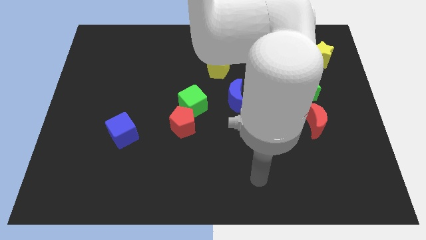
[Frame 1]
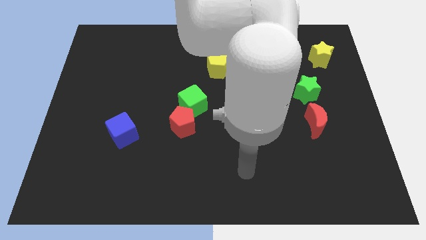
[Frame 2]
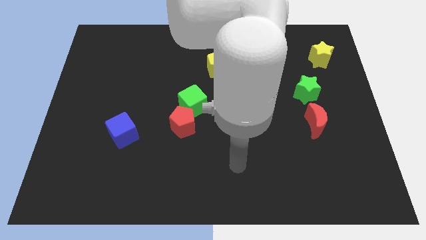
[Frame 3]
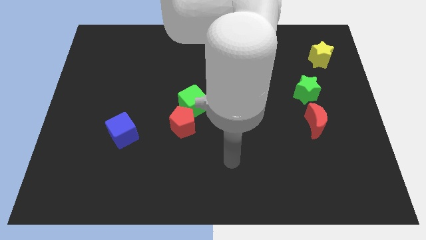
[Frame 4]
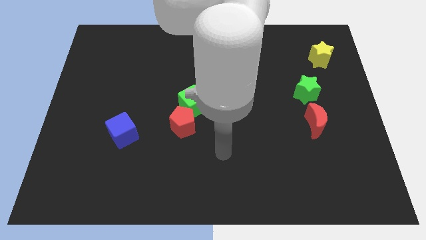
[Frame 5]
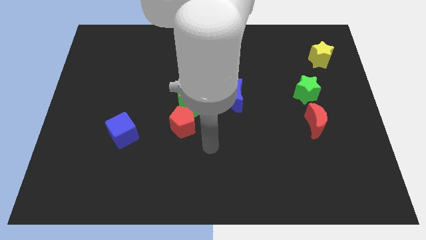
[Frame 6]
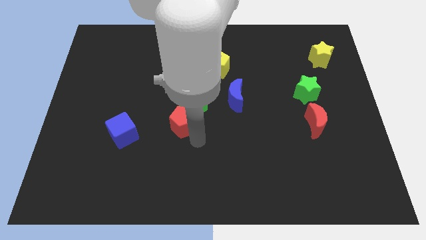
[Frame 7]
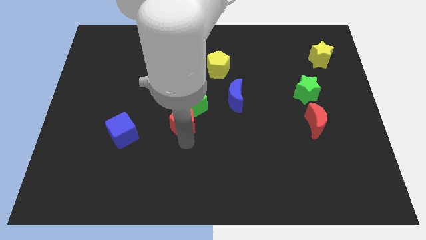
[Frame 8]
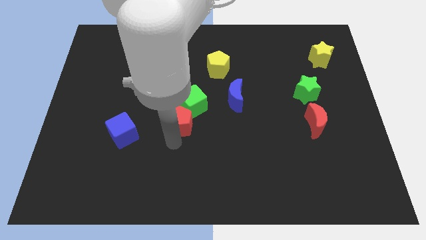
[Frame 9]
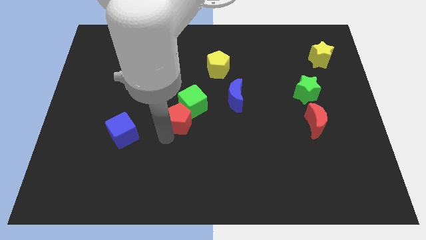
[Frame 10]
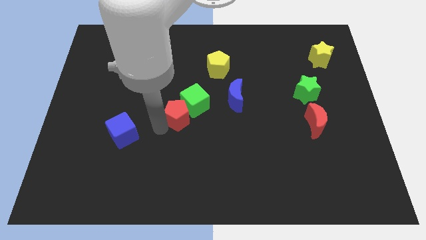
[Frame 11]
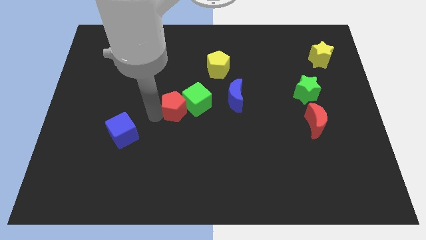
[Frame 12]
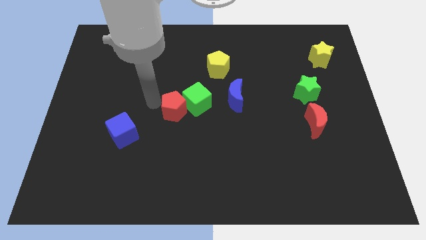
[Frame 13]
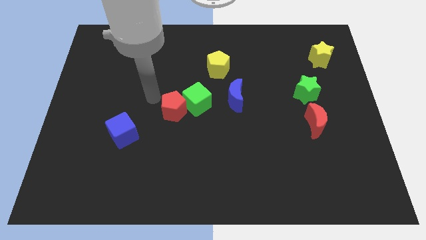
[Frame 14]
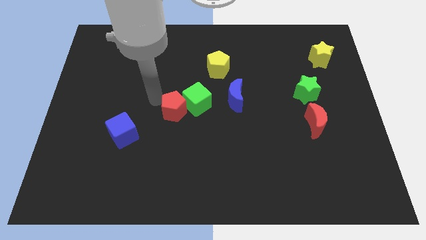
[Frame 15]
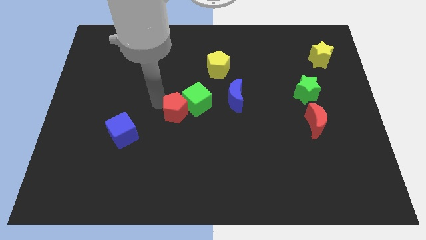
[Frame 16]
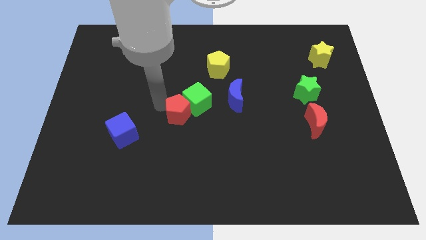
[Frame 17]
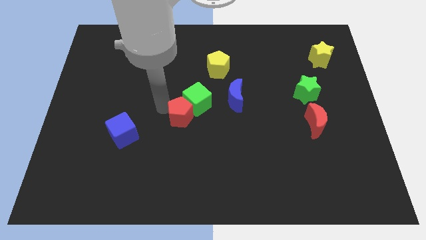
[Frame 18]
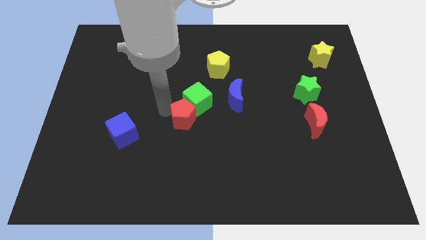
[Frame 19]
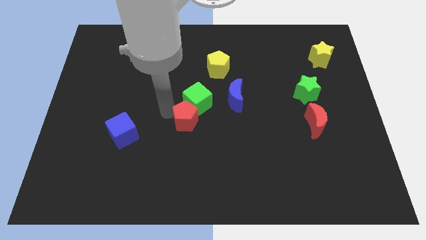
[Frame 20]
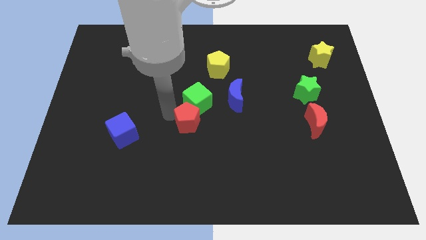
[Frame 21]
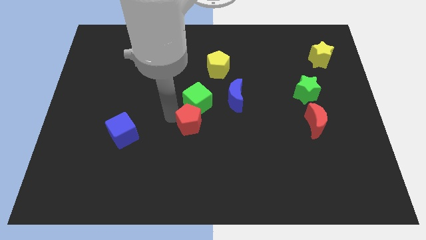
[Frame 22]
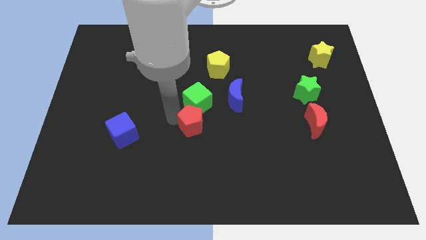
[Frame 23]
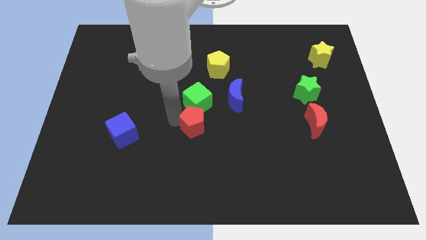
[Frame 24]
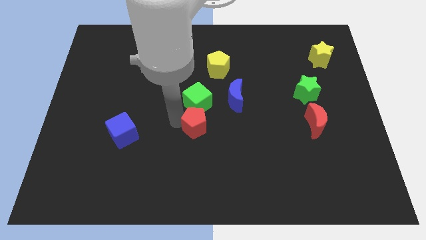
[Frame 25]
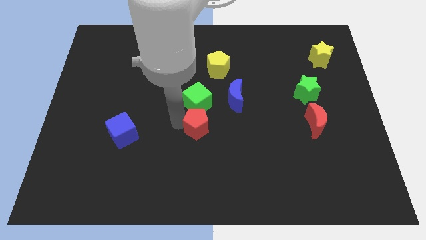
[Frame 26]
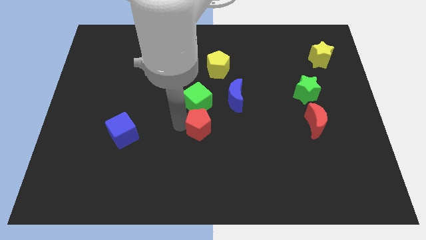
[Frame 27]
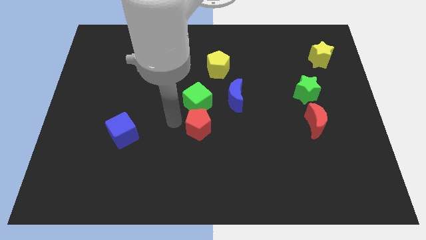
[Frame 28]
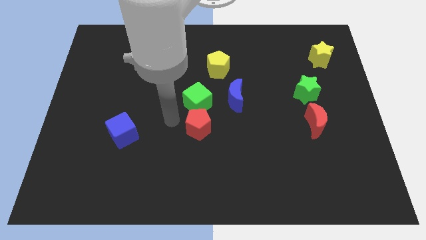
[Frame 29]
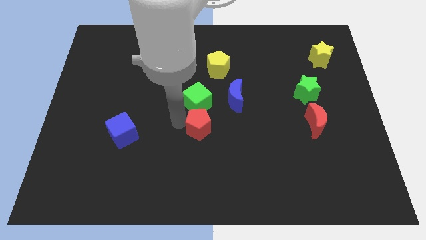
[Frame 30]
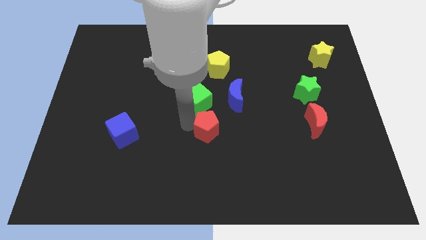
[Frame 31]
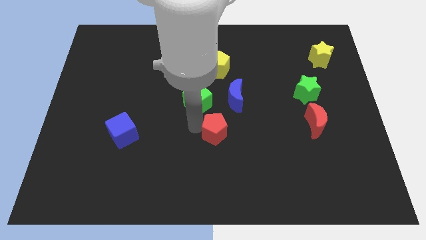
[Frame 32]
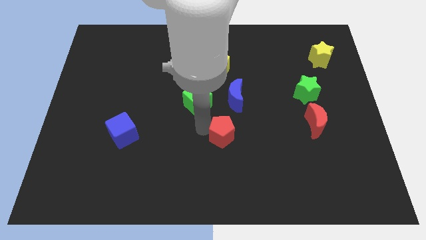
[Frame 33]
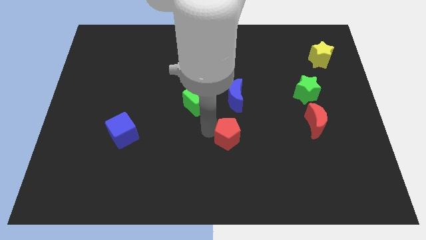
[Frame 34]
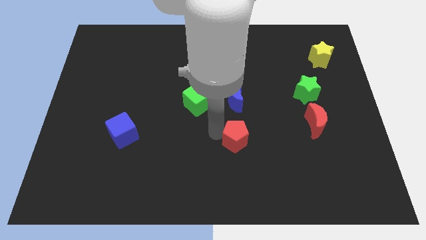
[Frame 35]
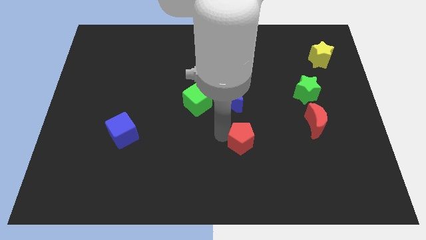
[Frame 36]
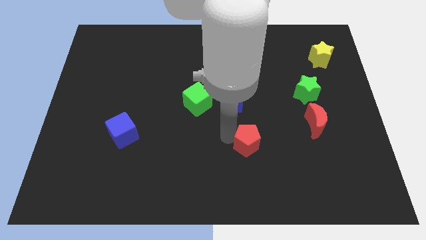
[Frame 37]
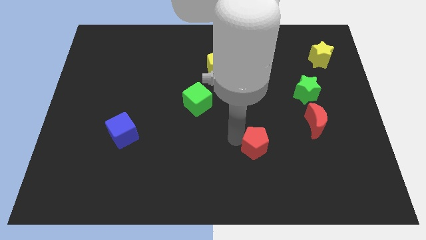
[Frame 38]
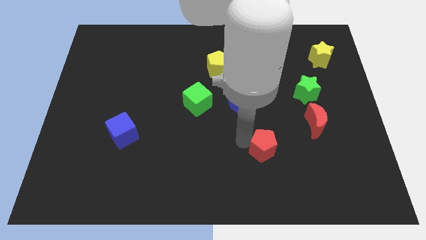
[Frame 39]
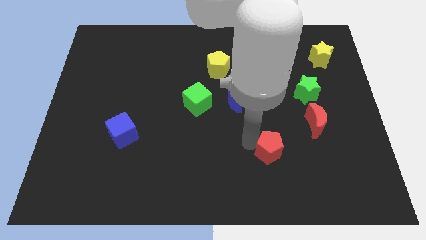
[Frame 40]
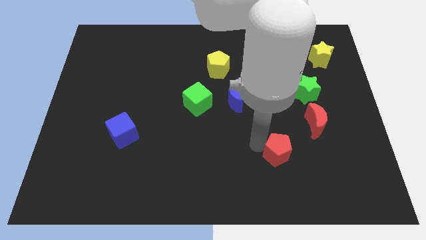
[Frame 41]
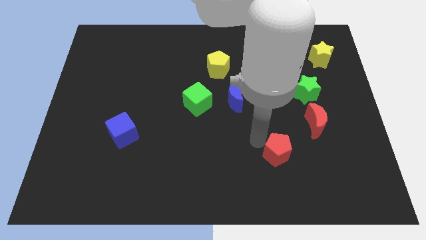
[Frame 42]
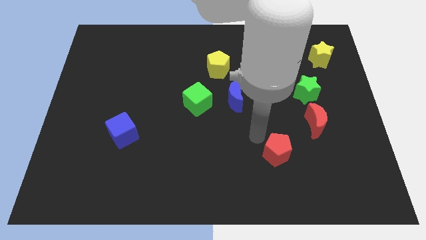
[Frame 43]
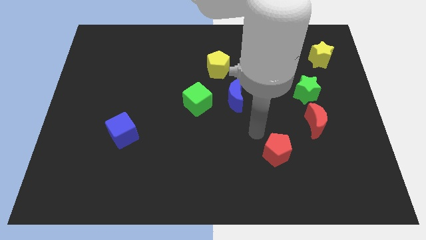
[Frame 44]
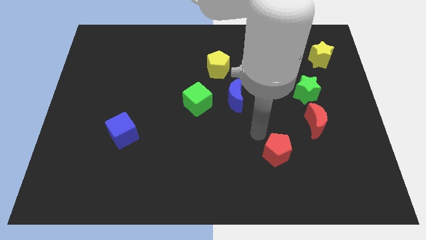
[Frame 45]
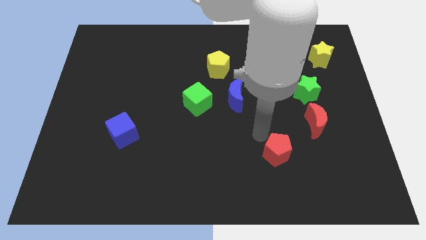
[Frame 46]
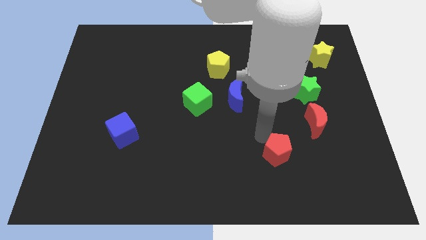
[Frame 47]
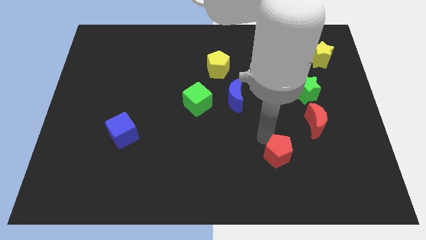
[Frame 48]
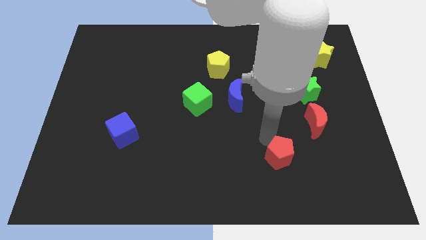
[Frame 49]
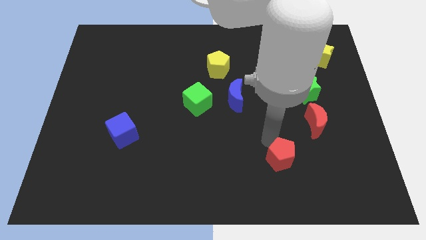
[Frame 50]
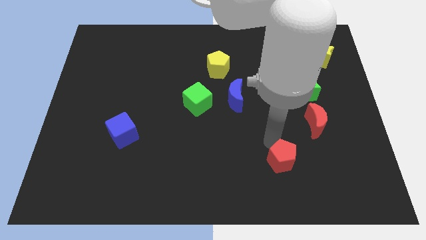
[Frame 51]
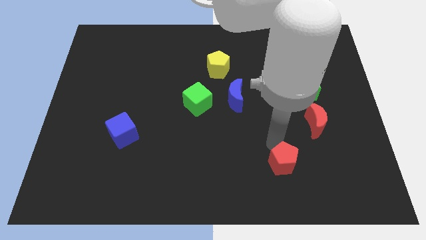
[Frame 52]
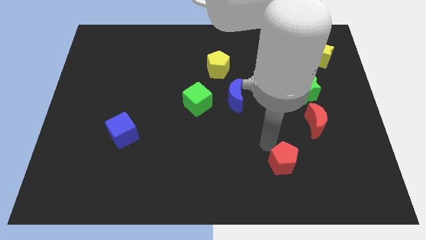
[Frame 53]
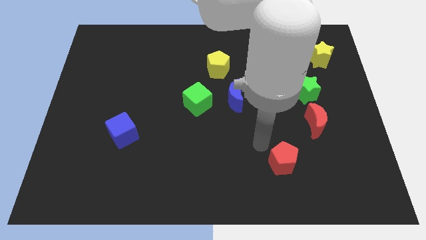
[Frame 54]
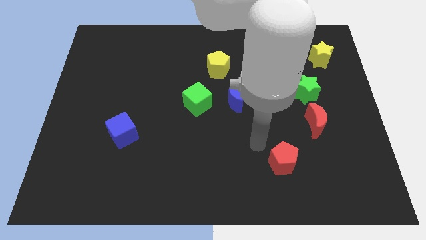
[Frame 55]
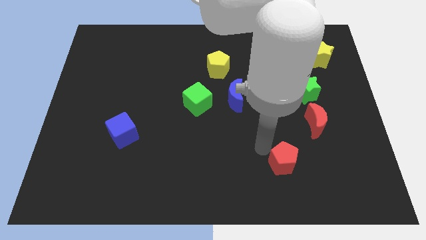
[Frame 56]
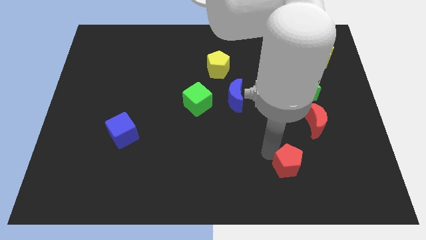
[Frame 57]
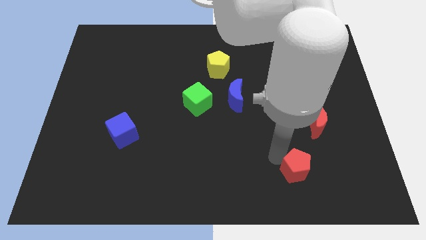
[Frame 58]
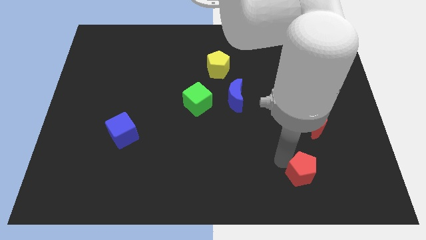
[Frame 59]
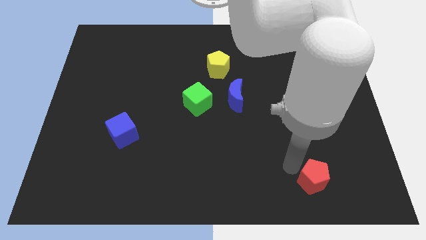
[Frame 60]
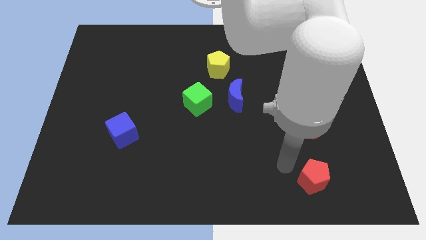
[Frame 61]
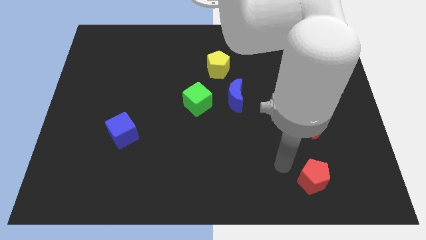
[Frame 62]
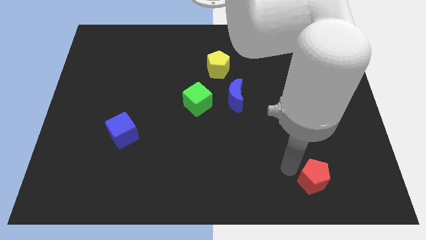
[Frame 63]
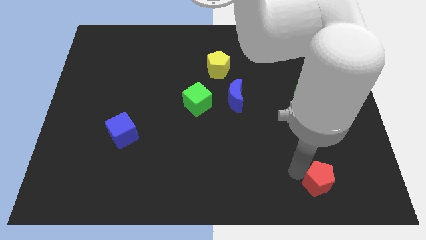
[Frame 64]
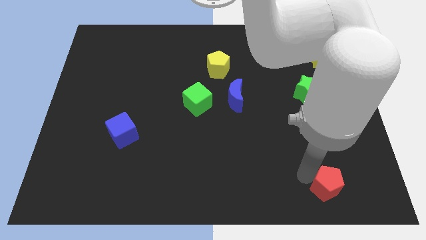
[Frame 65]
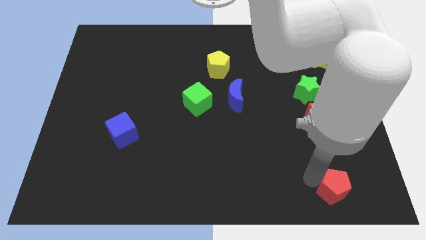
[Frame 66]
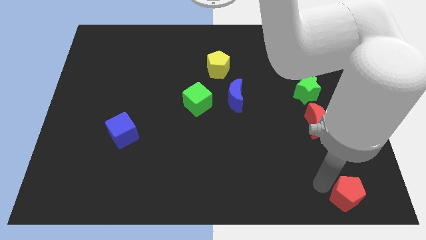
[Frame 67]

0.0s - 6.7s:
move the red pentagon to the lower right corner
